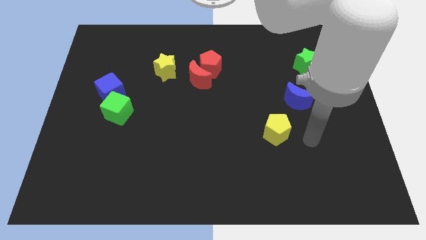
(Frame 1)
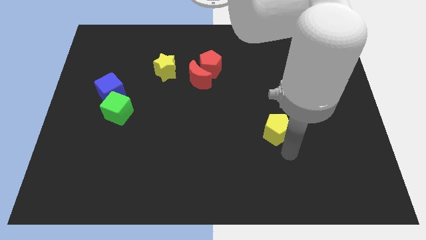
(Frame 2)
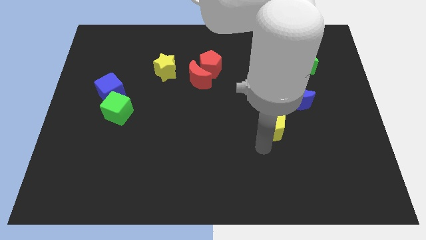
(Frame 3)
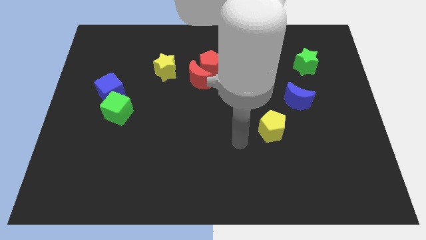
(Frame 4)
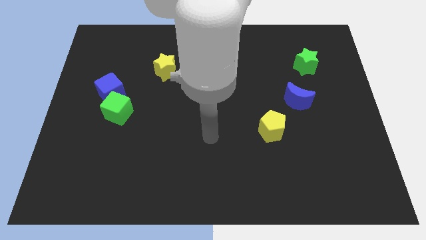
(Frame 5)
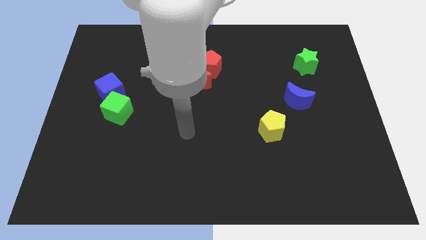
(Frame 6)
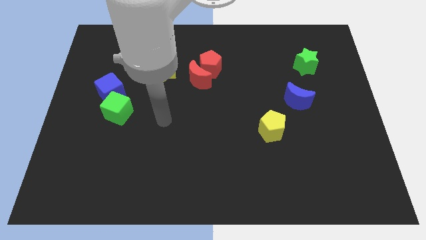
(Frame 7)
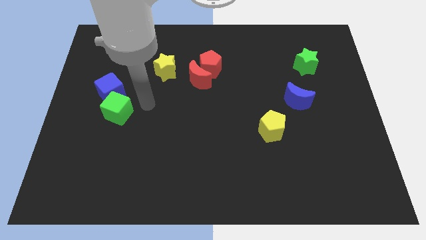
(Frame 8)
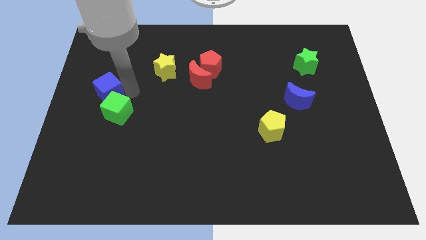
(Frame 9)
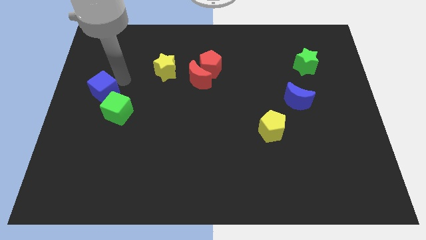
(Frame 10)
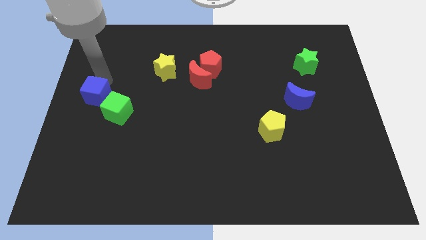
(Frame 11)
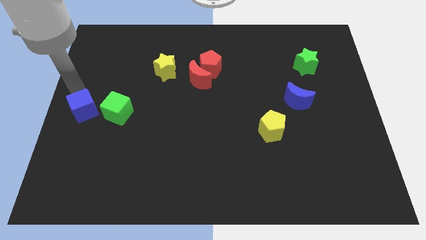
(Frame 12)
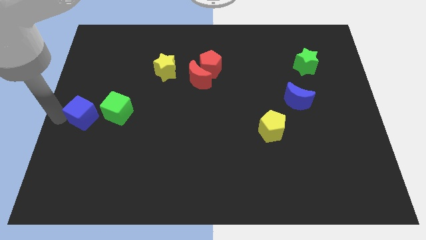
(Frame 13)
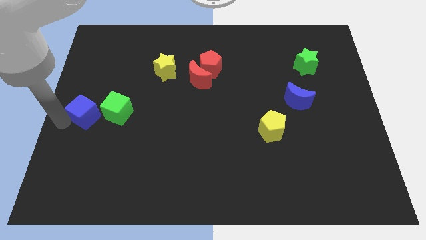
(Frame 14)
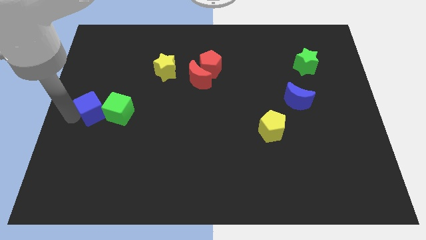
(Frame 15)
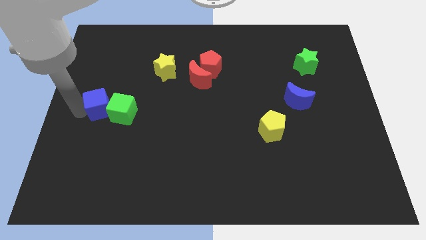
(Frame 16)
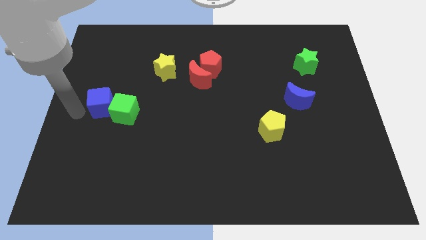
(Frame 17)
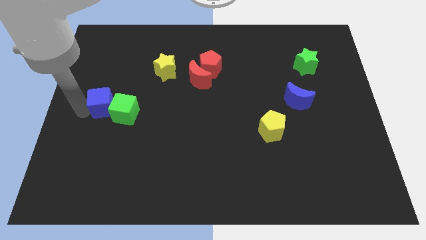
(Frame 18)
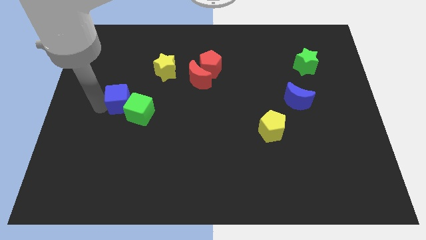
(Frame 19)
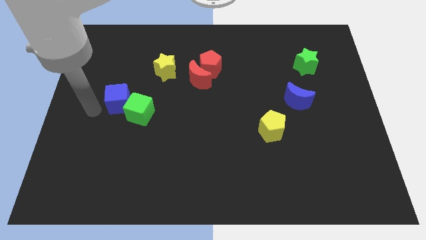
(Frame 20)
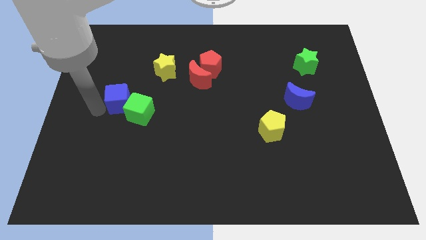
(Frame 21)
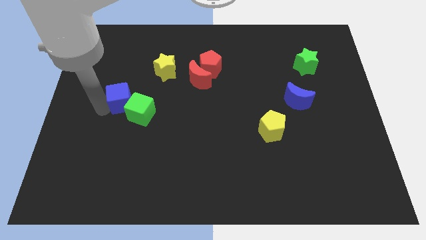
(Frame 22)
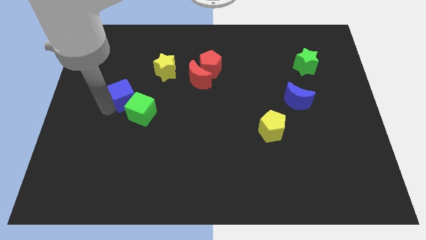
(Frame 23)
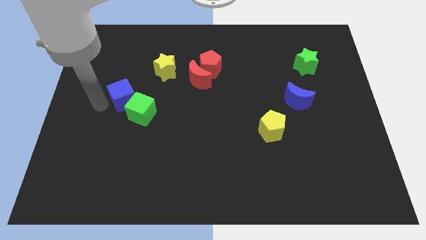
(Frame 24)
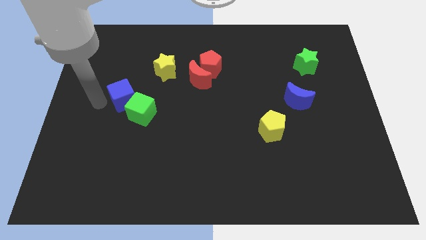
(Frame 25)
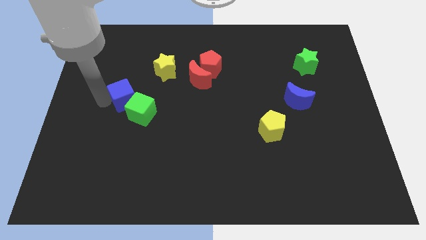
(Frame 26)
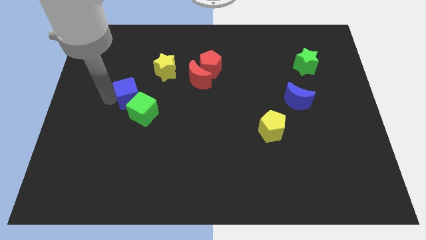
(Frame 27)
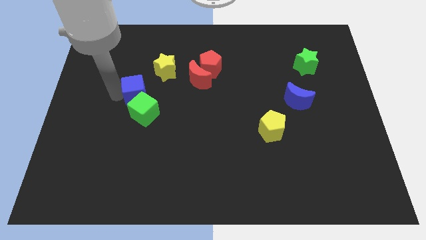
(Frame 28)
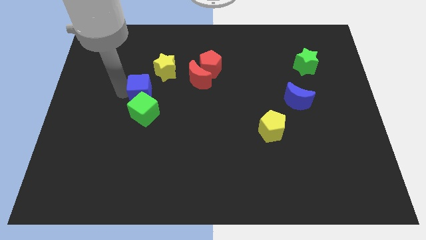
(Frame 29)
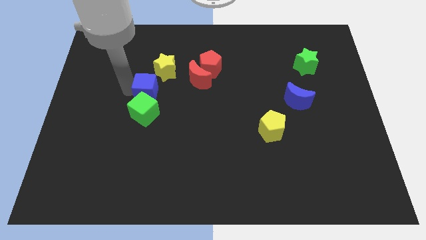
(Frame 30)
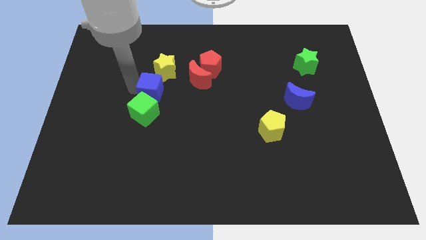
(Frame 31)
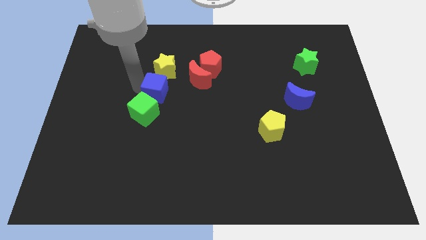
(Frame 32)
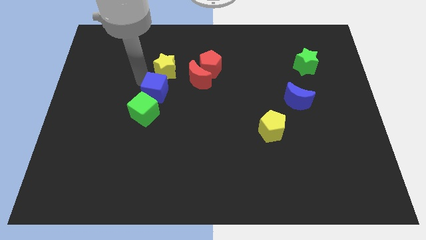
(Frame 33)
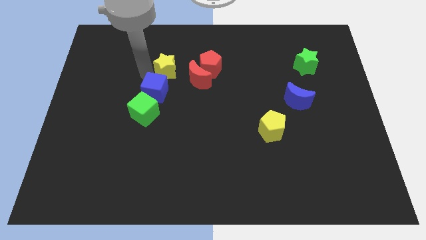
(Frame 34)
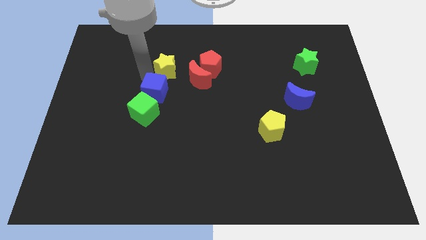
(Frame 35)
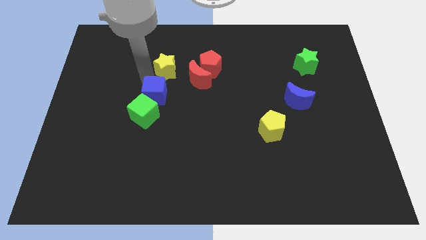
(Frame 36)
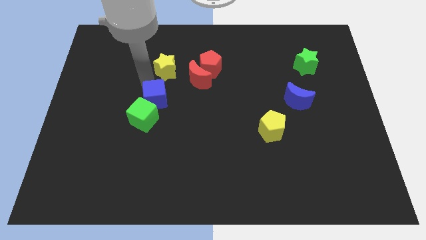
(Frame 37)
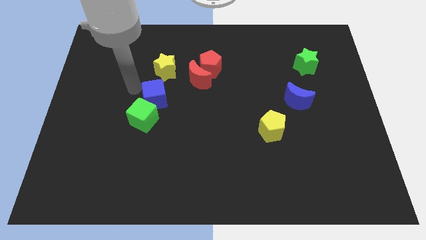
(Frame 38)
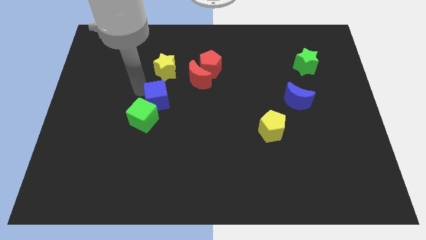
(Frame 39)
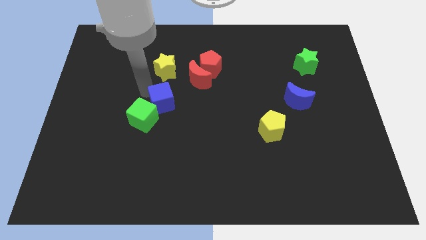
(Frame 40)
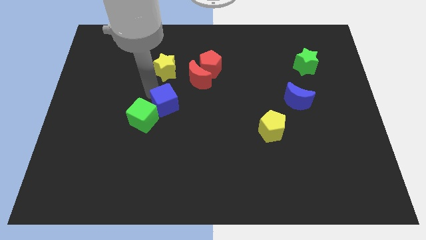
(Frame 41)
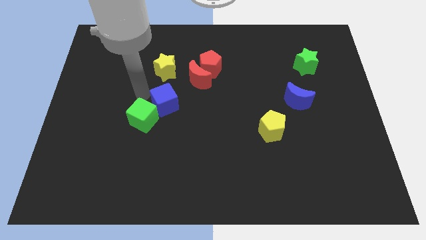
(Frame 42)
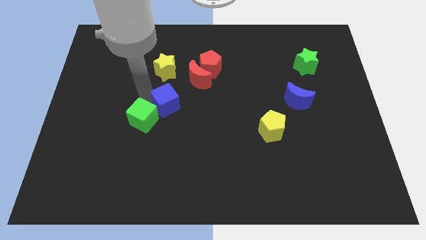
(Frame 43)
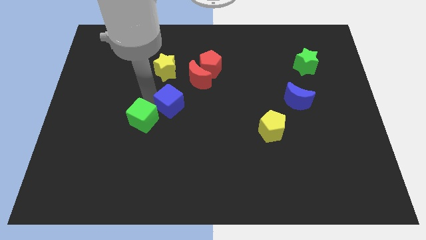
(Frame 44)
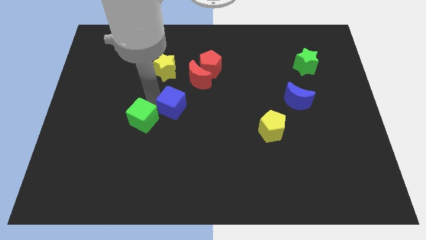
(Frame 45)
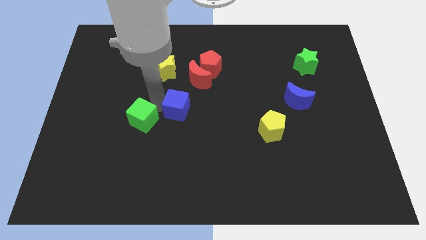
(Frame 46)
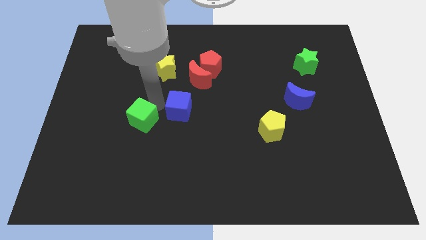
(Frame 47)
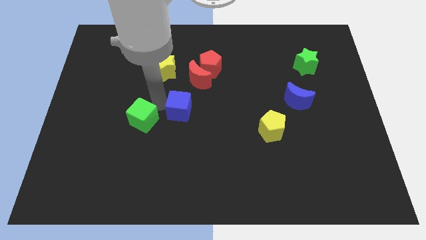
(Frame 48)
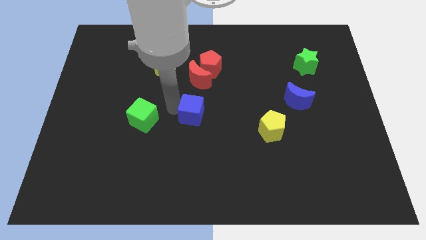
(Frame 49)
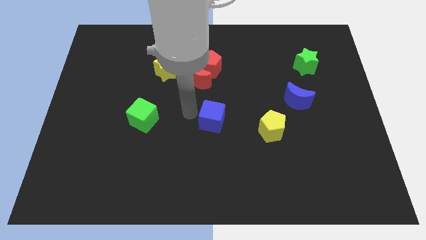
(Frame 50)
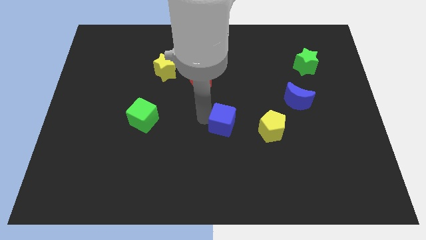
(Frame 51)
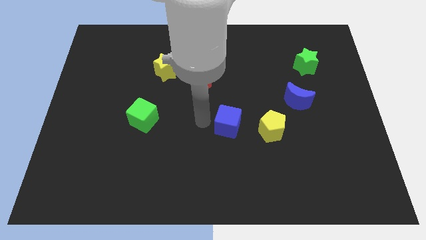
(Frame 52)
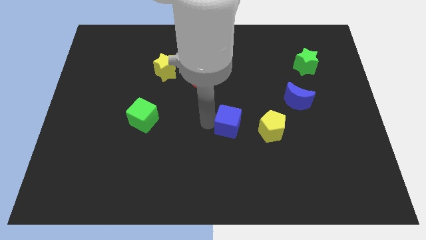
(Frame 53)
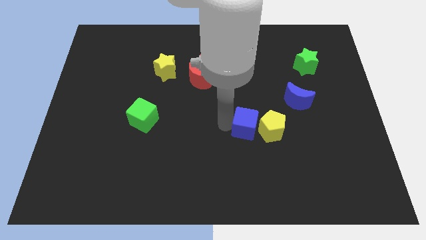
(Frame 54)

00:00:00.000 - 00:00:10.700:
move the blue cube next to the yellow pentagon
